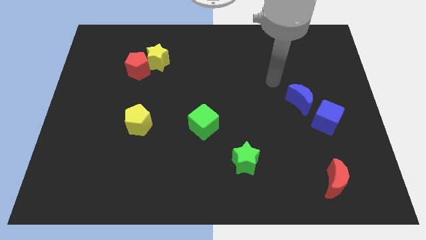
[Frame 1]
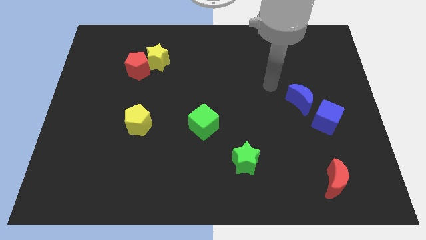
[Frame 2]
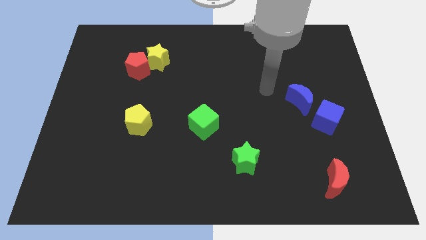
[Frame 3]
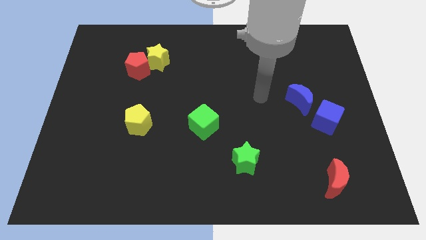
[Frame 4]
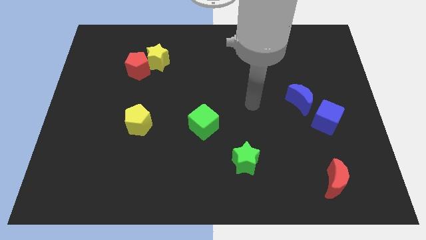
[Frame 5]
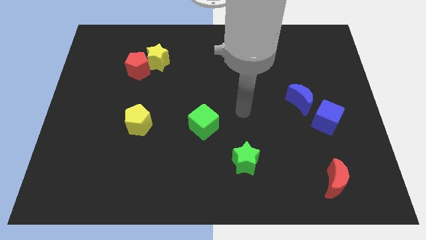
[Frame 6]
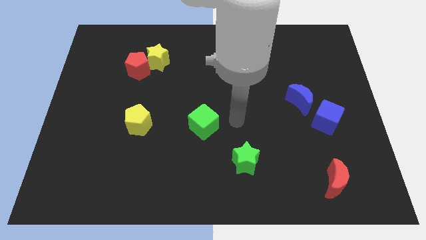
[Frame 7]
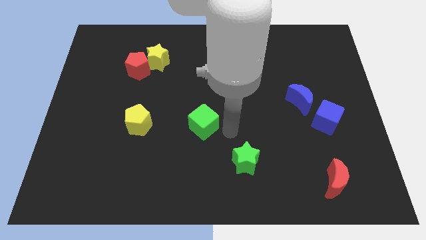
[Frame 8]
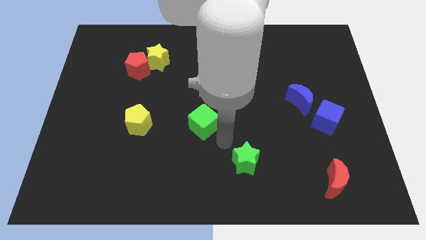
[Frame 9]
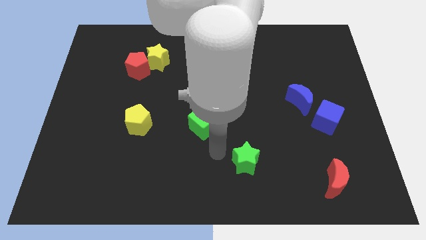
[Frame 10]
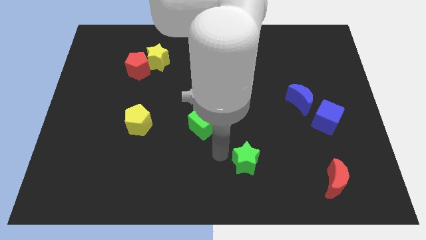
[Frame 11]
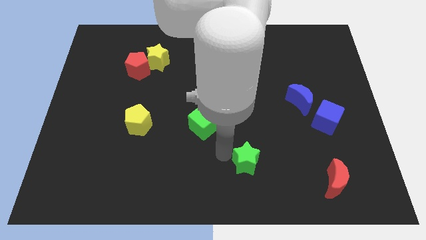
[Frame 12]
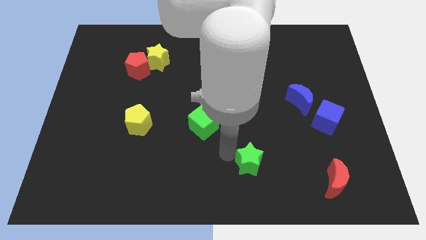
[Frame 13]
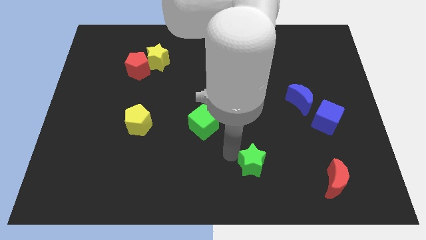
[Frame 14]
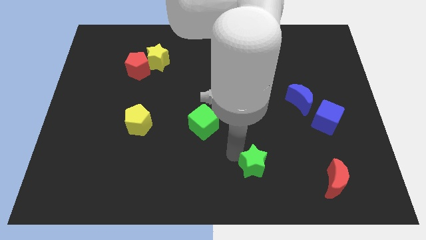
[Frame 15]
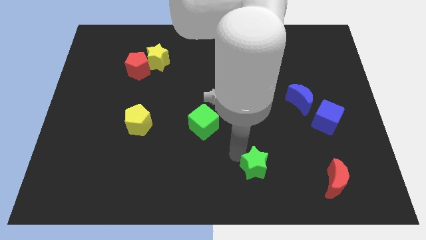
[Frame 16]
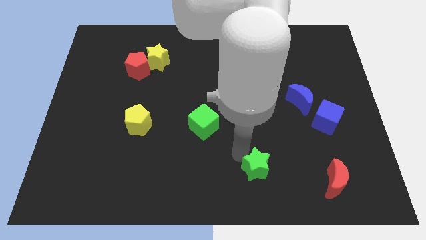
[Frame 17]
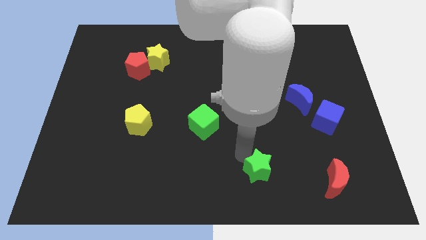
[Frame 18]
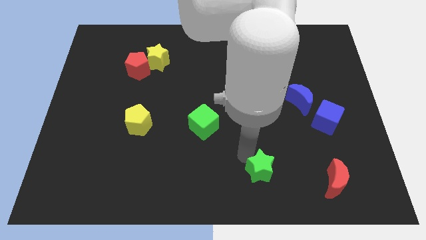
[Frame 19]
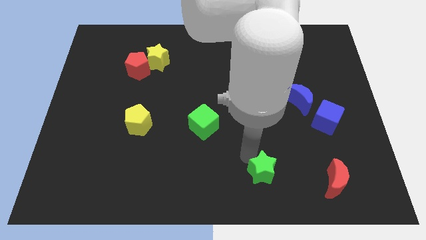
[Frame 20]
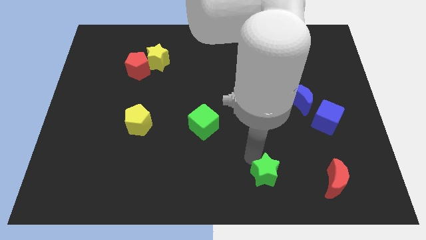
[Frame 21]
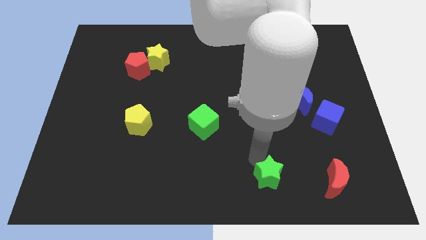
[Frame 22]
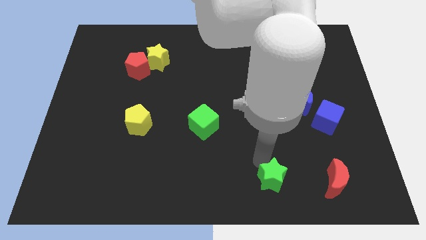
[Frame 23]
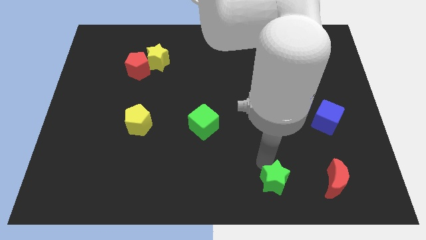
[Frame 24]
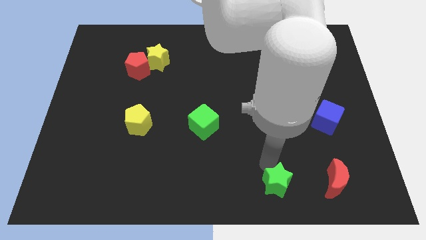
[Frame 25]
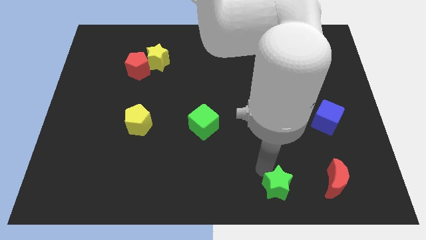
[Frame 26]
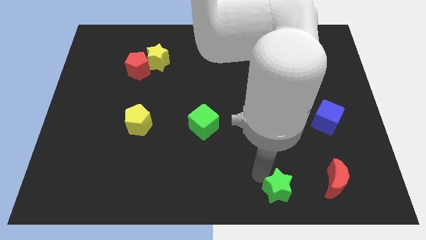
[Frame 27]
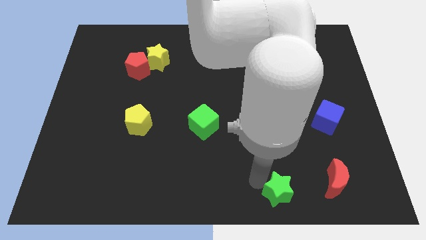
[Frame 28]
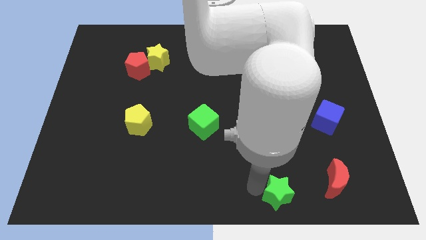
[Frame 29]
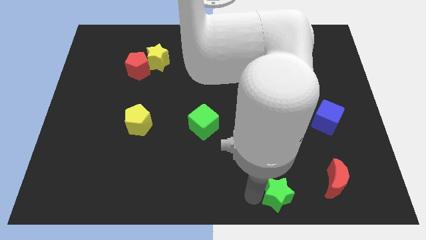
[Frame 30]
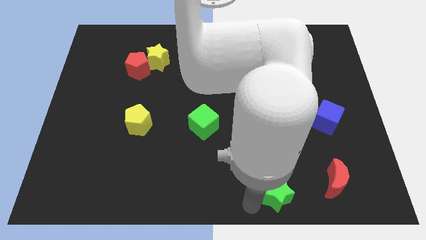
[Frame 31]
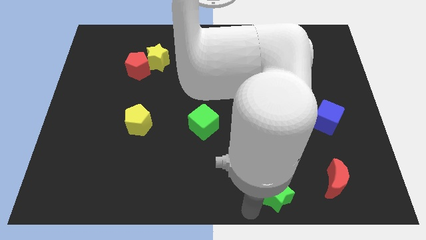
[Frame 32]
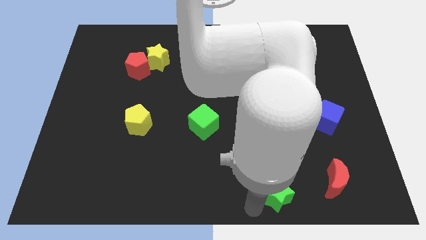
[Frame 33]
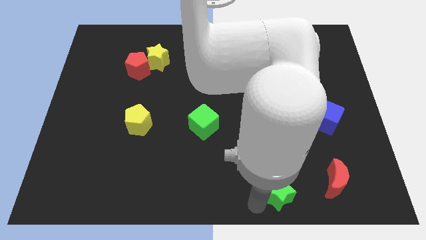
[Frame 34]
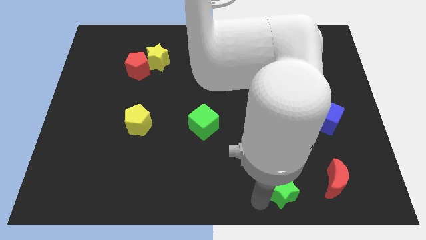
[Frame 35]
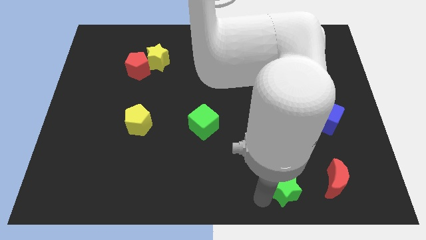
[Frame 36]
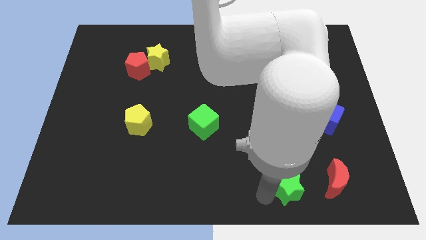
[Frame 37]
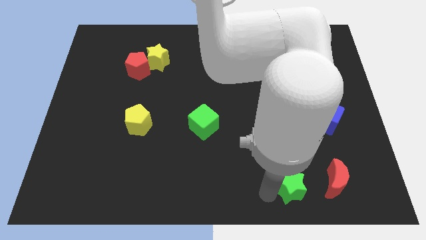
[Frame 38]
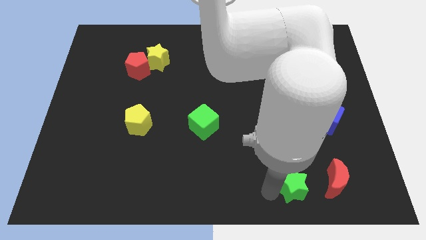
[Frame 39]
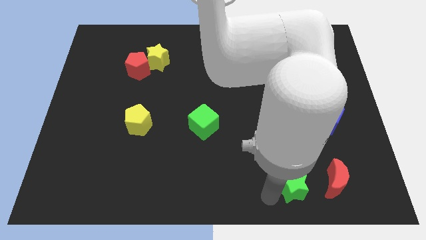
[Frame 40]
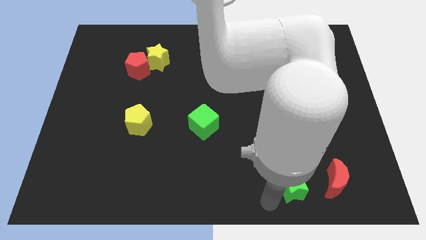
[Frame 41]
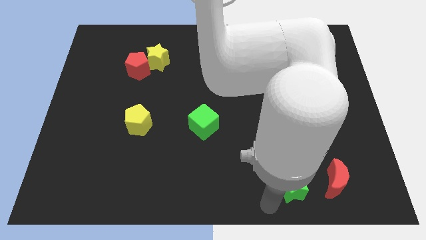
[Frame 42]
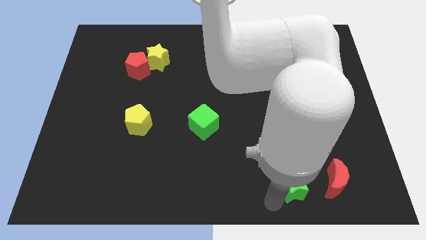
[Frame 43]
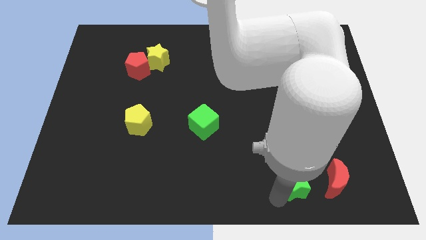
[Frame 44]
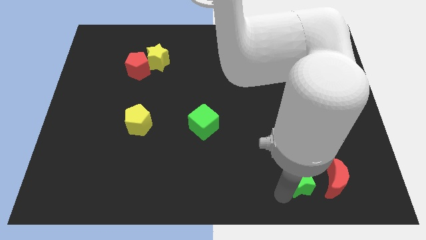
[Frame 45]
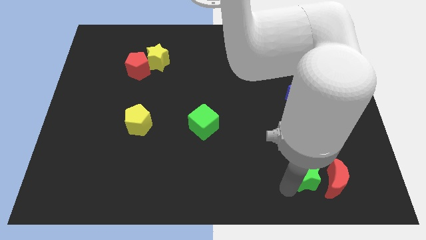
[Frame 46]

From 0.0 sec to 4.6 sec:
move the green star towards the red moon

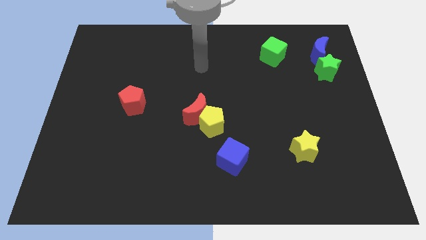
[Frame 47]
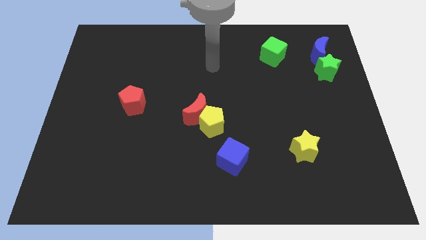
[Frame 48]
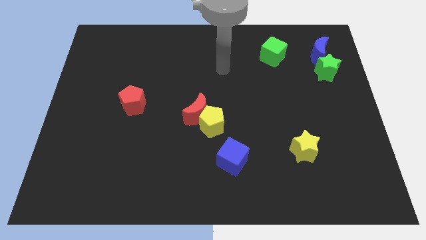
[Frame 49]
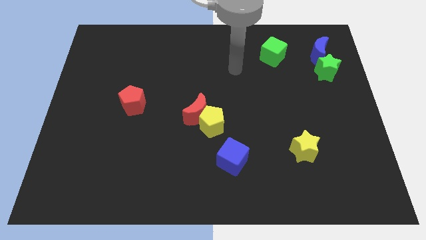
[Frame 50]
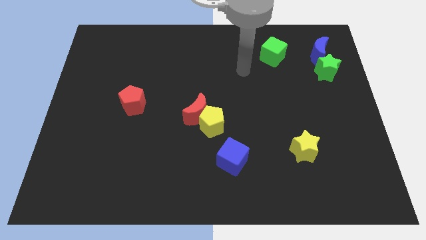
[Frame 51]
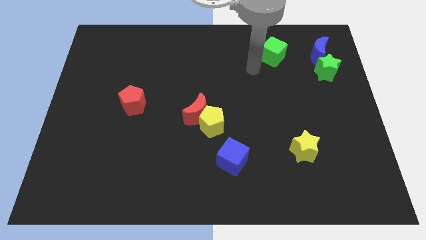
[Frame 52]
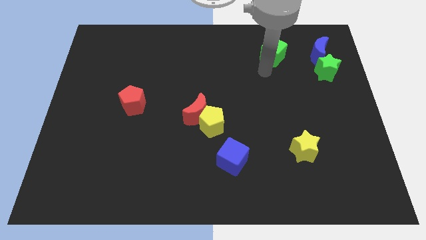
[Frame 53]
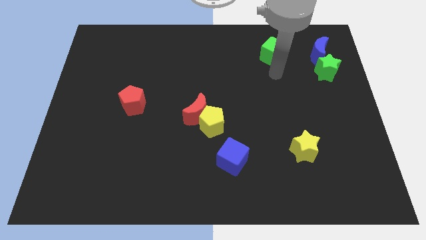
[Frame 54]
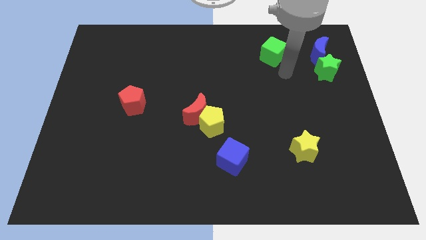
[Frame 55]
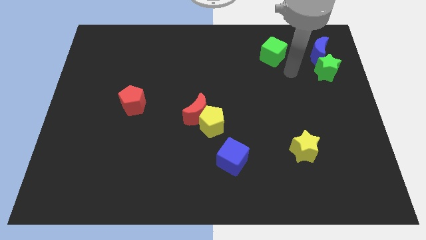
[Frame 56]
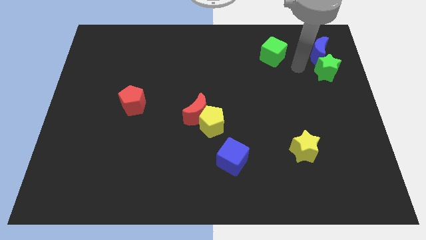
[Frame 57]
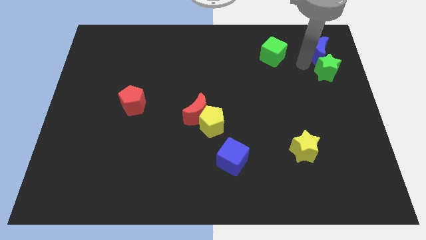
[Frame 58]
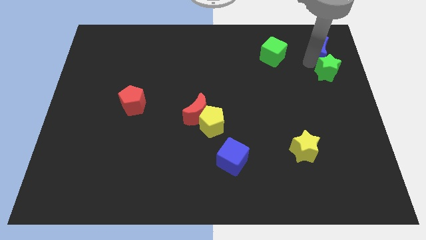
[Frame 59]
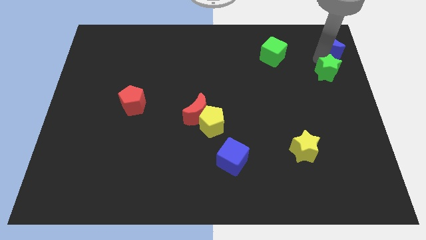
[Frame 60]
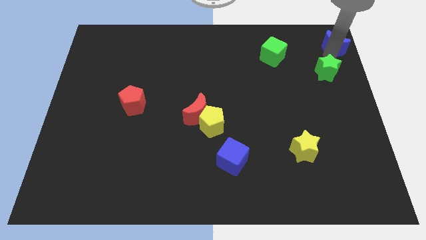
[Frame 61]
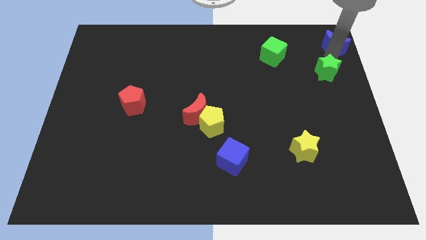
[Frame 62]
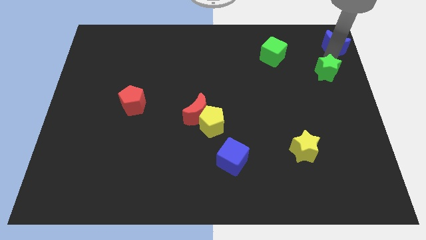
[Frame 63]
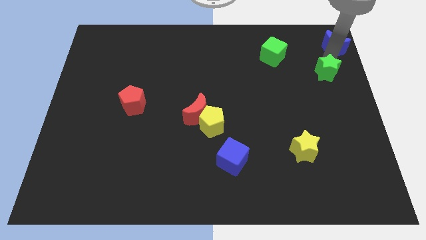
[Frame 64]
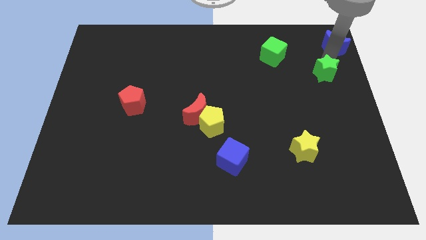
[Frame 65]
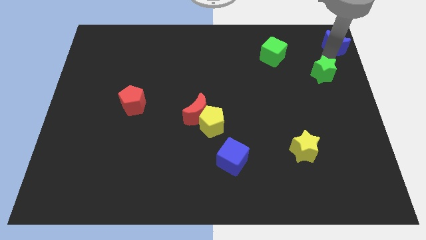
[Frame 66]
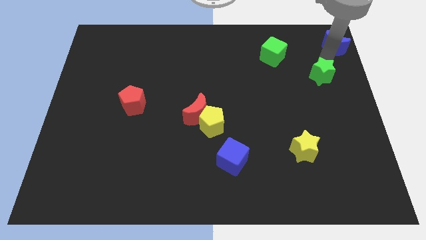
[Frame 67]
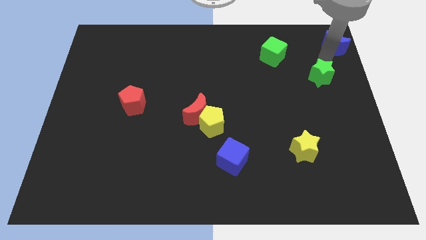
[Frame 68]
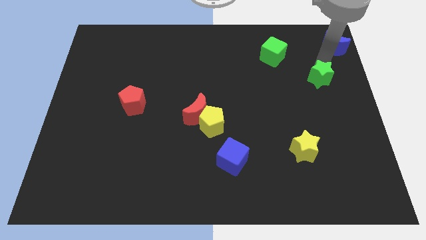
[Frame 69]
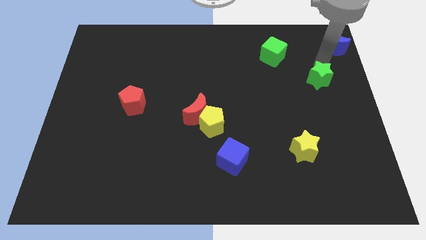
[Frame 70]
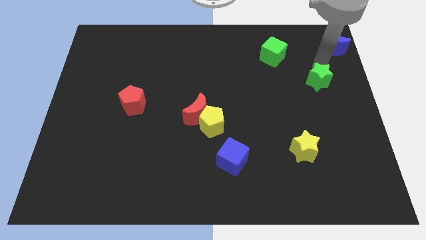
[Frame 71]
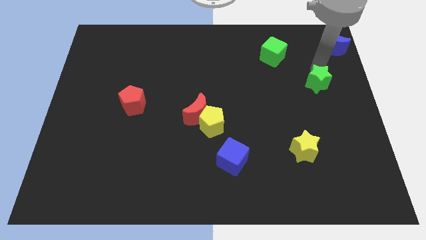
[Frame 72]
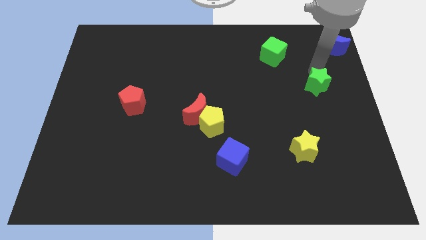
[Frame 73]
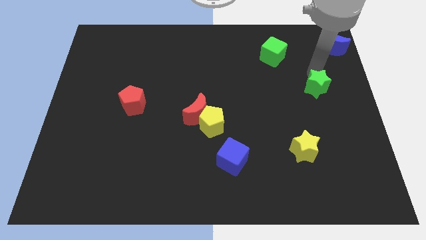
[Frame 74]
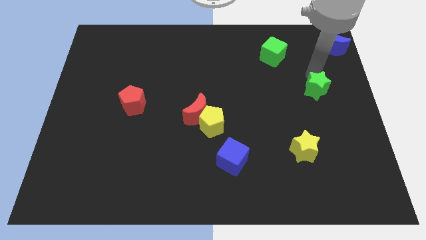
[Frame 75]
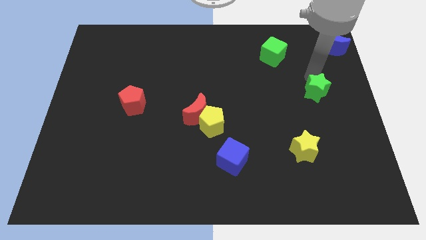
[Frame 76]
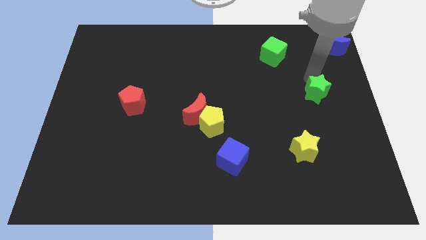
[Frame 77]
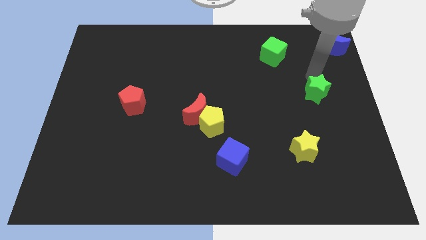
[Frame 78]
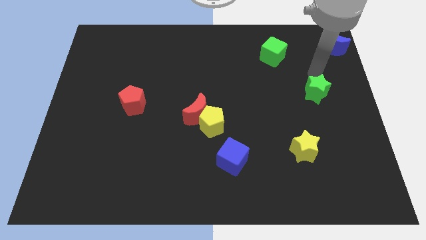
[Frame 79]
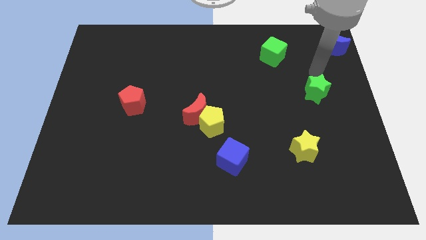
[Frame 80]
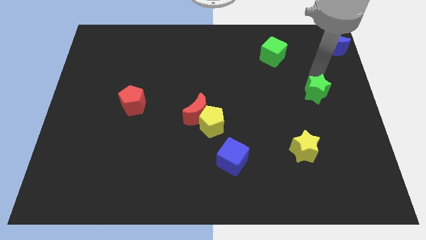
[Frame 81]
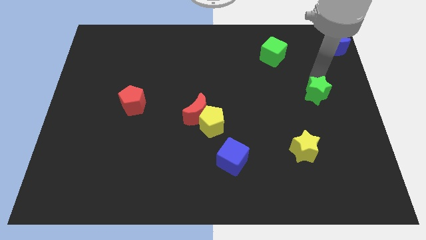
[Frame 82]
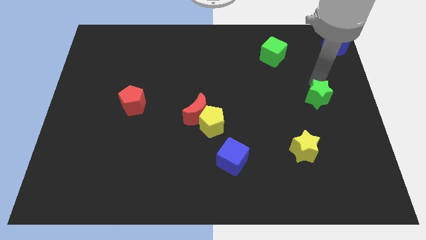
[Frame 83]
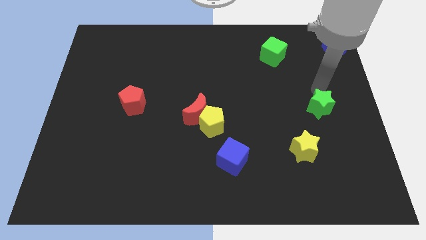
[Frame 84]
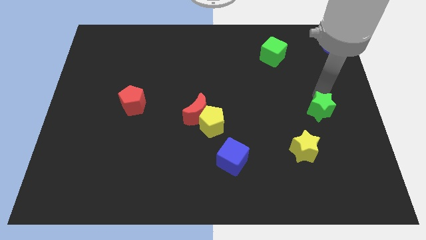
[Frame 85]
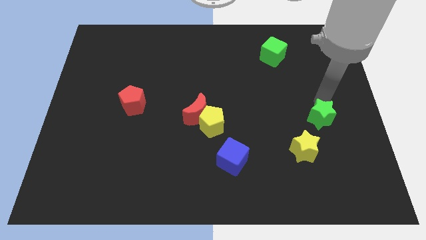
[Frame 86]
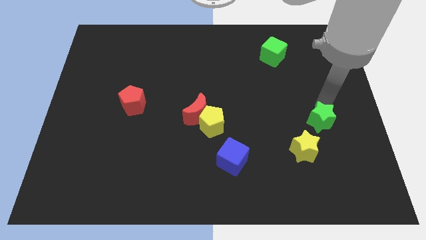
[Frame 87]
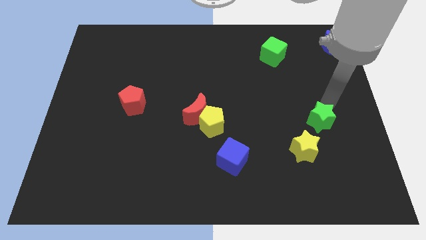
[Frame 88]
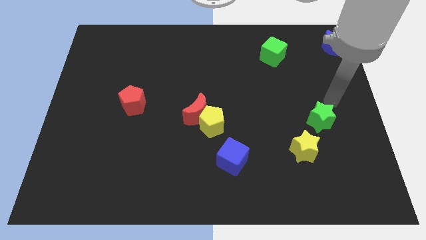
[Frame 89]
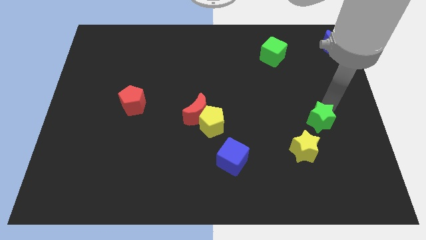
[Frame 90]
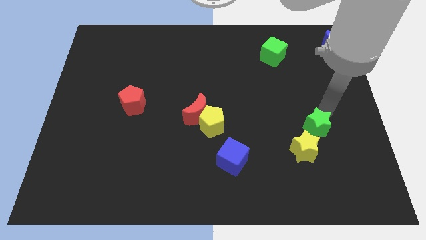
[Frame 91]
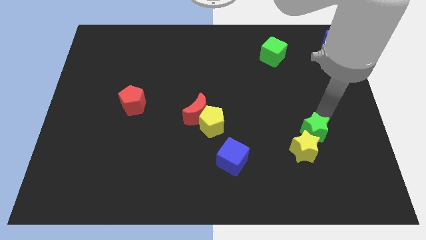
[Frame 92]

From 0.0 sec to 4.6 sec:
push the green star towards the yellow star
